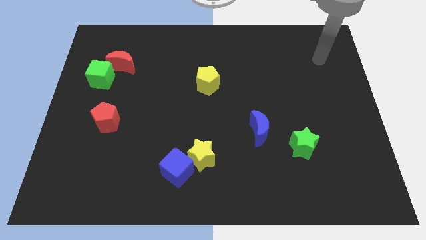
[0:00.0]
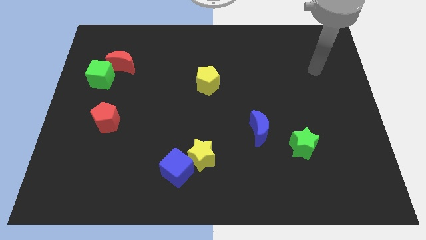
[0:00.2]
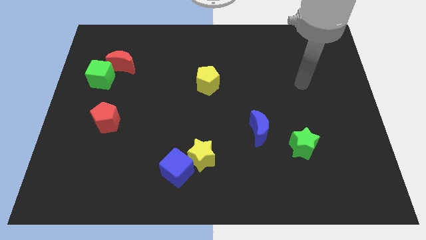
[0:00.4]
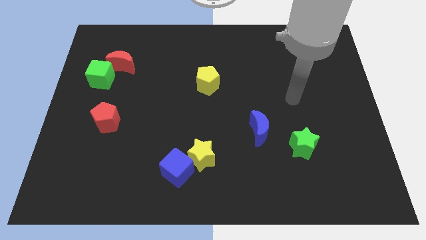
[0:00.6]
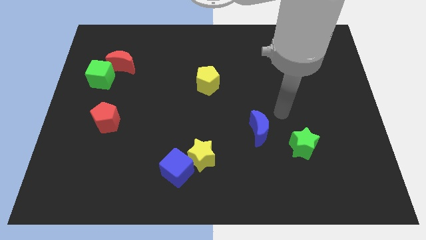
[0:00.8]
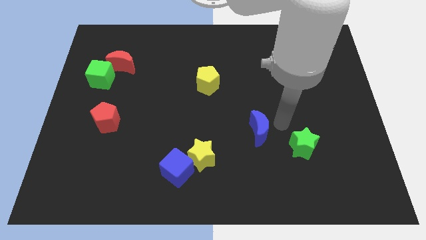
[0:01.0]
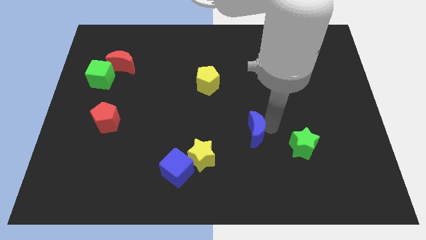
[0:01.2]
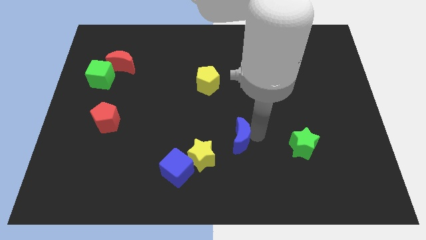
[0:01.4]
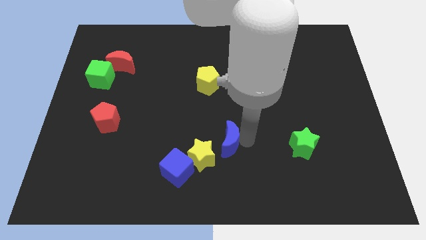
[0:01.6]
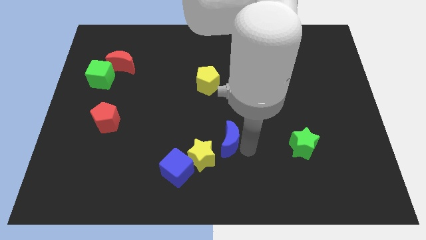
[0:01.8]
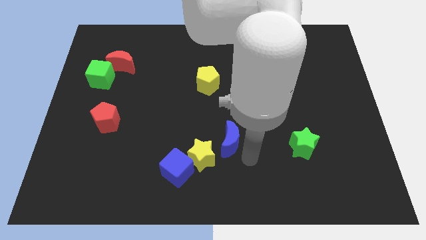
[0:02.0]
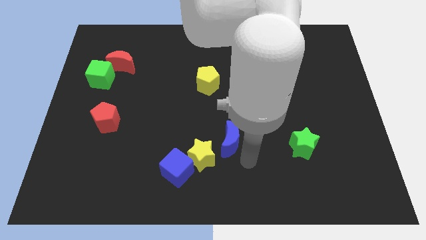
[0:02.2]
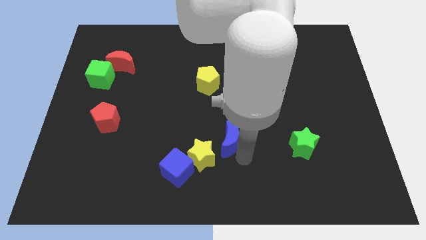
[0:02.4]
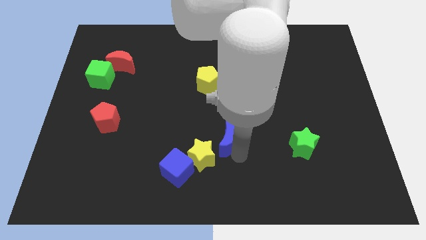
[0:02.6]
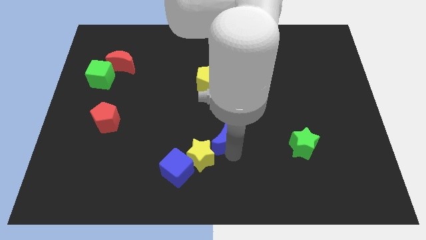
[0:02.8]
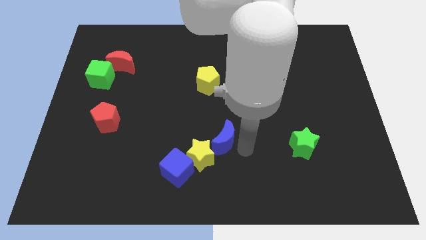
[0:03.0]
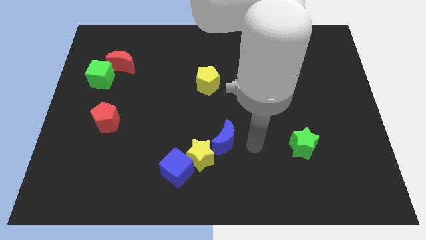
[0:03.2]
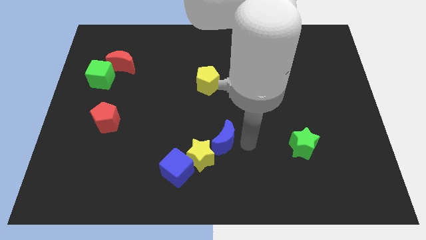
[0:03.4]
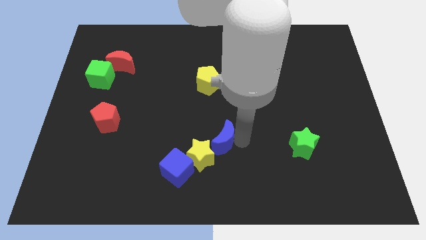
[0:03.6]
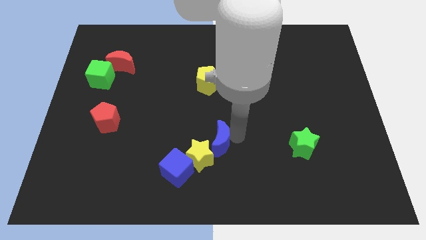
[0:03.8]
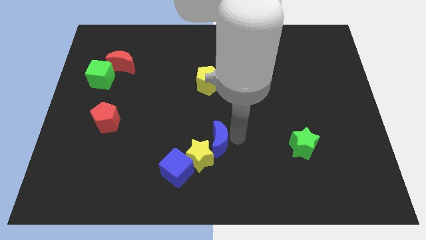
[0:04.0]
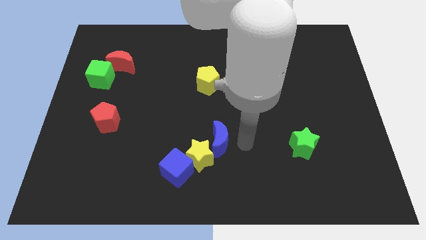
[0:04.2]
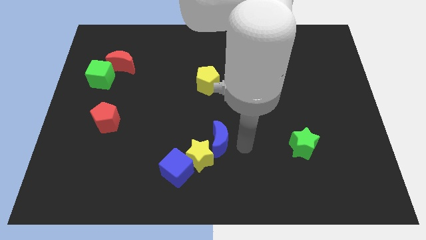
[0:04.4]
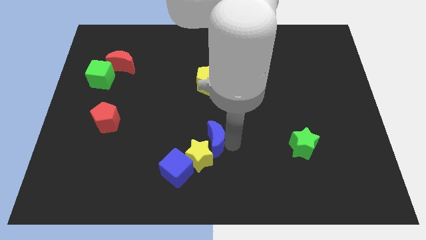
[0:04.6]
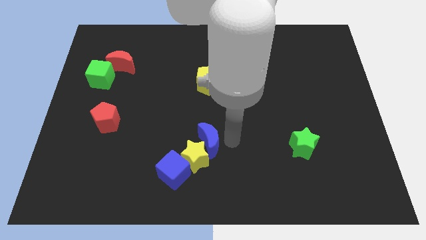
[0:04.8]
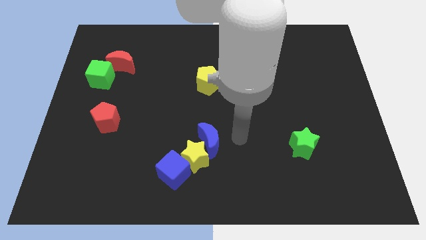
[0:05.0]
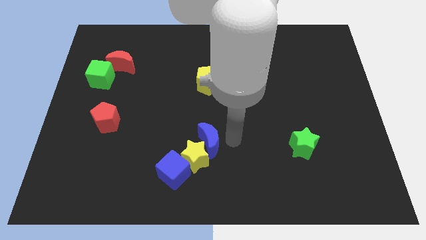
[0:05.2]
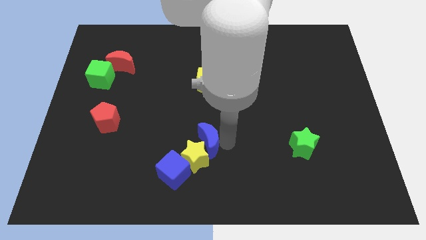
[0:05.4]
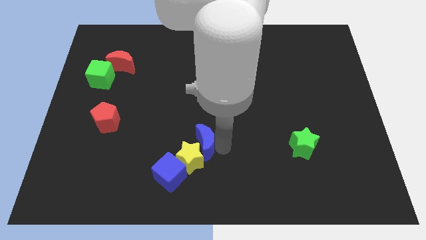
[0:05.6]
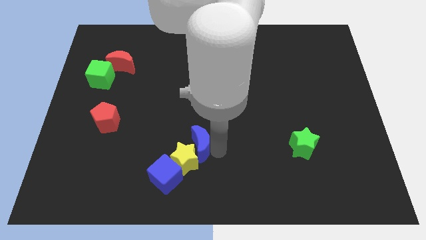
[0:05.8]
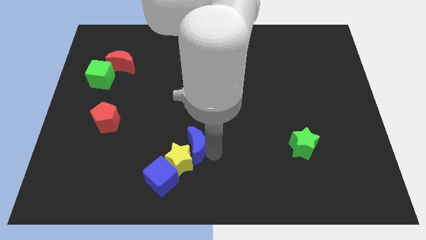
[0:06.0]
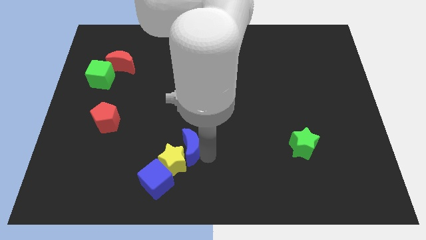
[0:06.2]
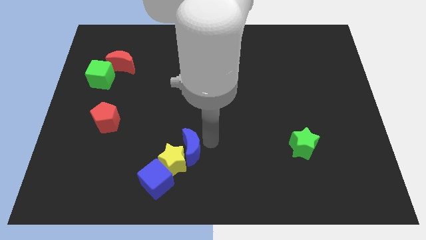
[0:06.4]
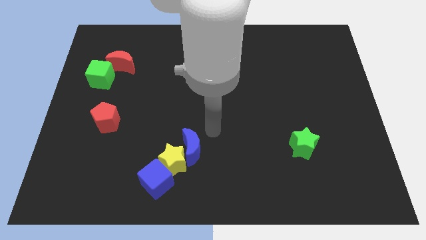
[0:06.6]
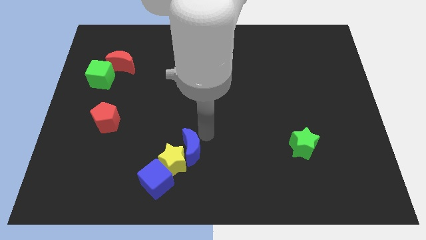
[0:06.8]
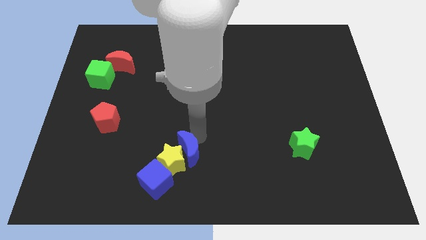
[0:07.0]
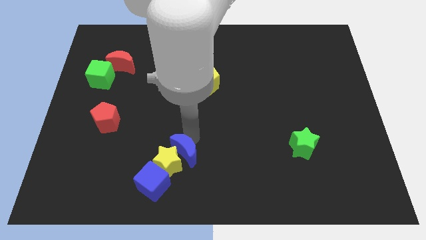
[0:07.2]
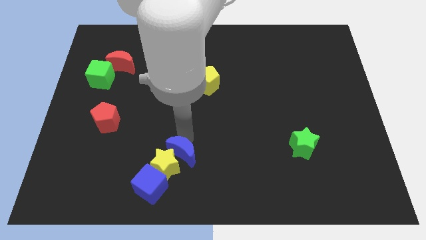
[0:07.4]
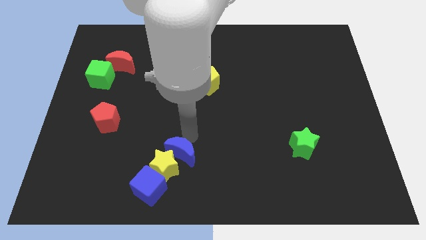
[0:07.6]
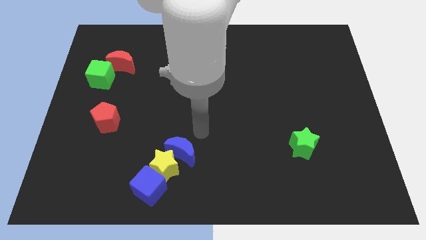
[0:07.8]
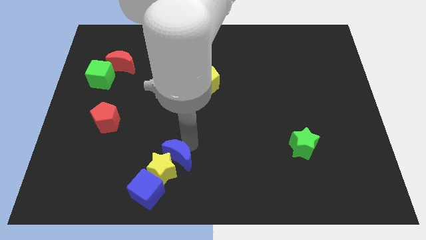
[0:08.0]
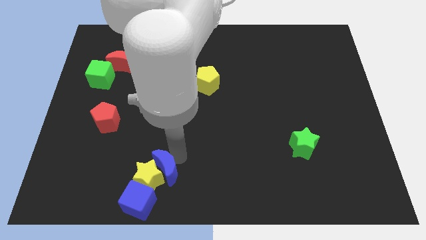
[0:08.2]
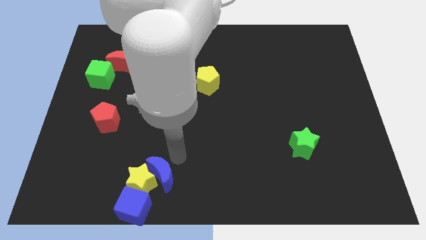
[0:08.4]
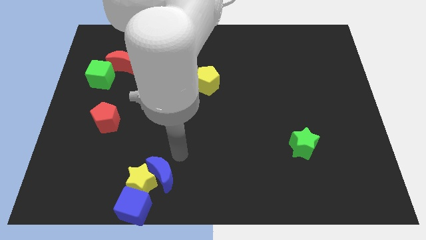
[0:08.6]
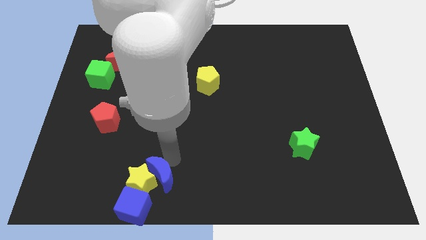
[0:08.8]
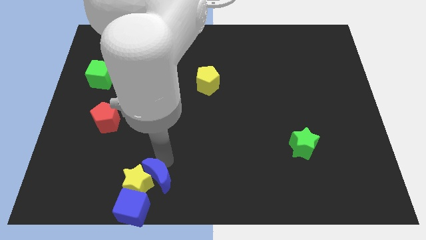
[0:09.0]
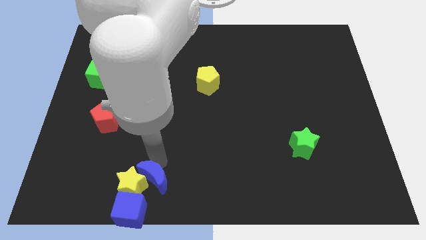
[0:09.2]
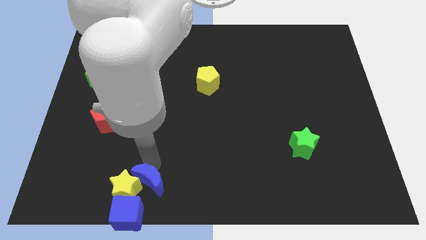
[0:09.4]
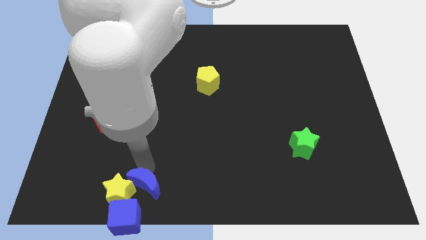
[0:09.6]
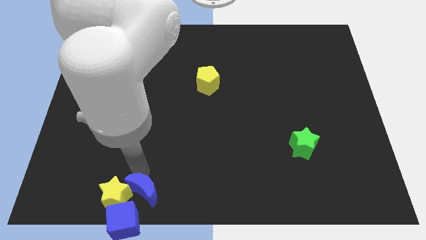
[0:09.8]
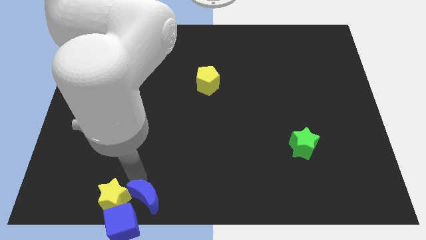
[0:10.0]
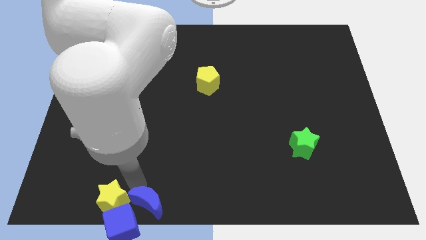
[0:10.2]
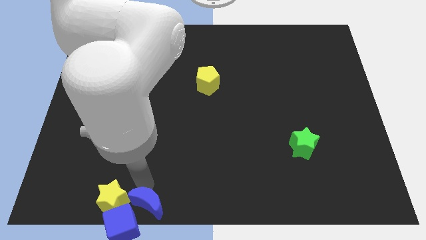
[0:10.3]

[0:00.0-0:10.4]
put the blue moon to the blue cube

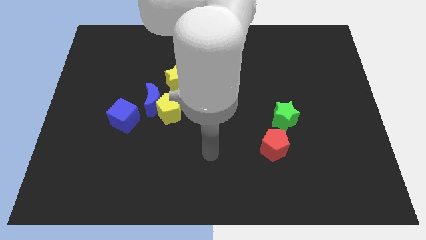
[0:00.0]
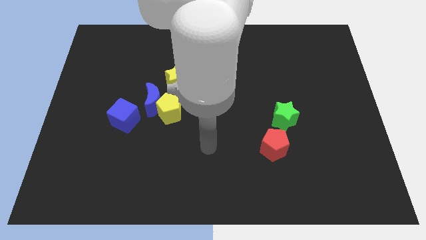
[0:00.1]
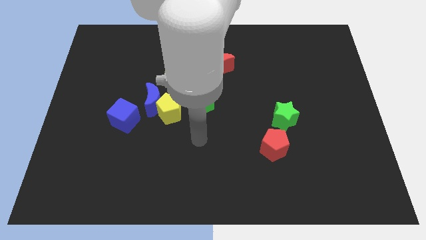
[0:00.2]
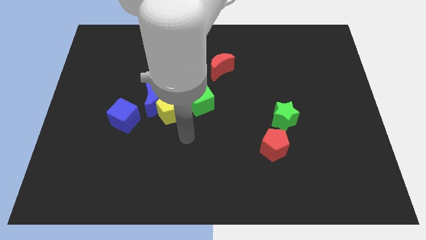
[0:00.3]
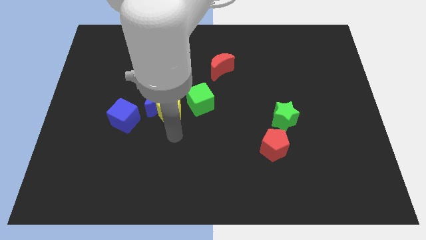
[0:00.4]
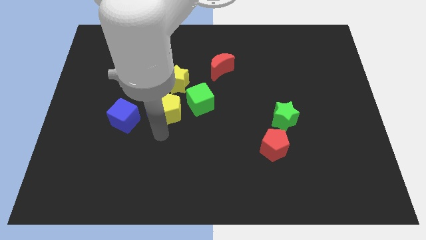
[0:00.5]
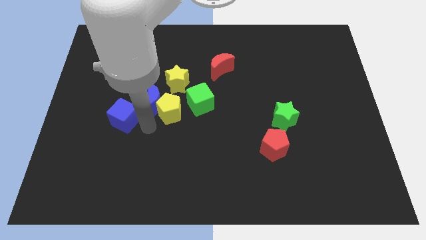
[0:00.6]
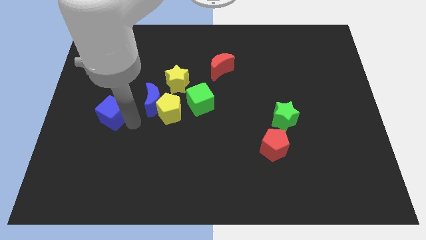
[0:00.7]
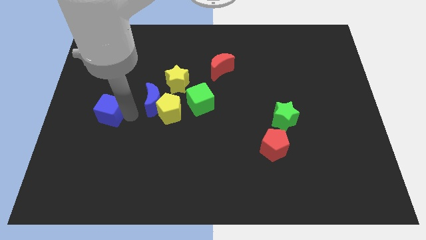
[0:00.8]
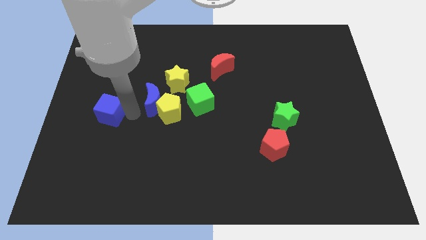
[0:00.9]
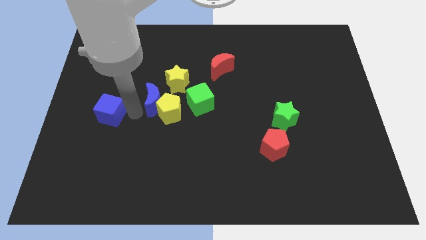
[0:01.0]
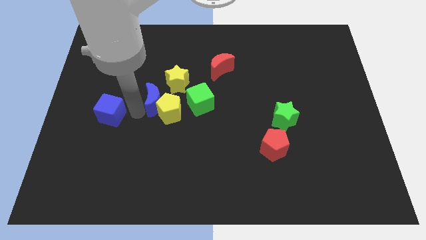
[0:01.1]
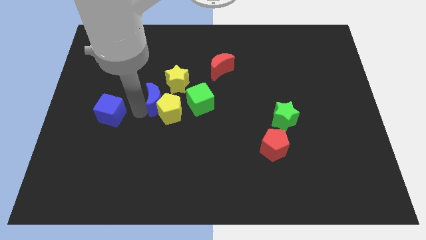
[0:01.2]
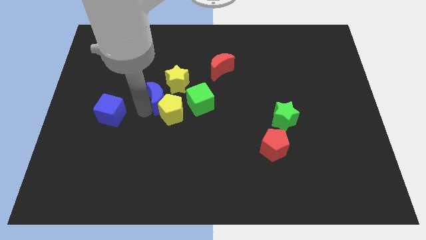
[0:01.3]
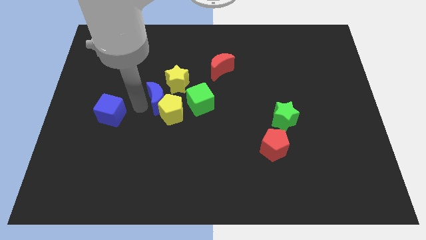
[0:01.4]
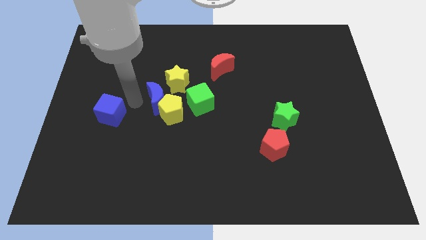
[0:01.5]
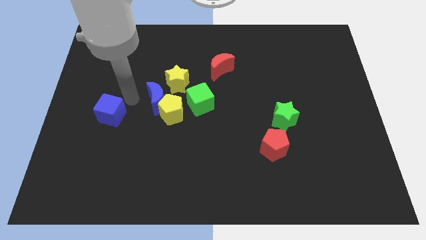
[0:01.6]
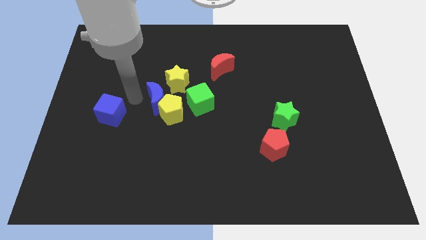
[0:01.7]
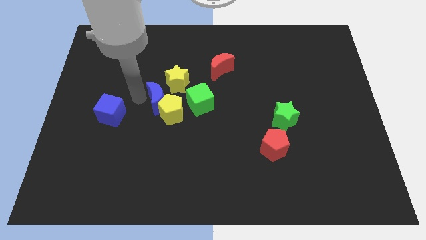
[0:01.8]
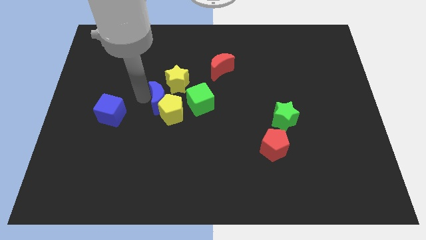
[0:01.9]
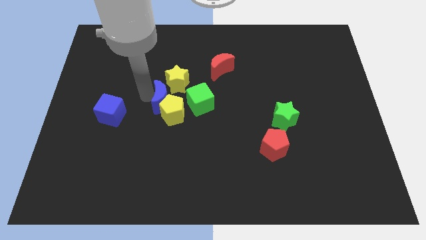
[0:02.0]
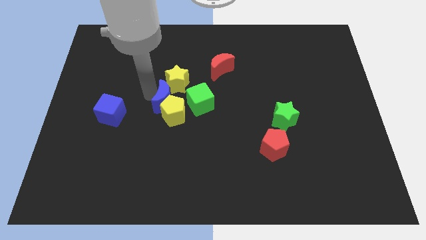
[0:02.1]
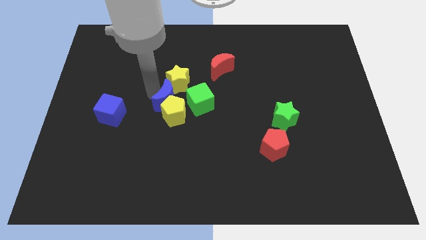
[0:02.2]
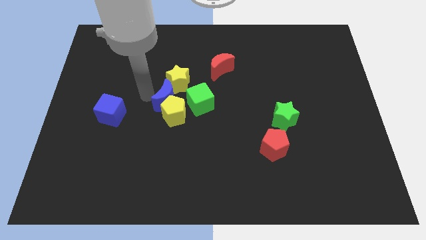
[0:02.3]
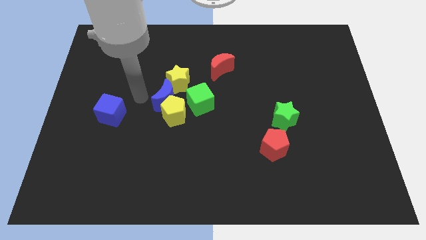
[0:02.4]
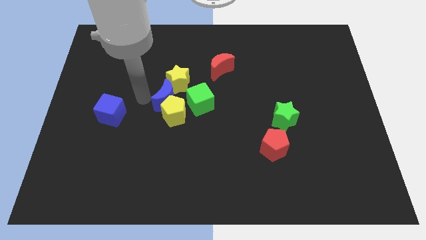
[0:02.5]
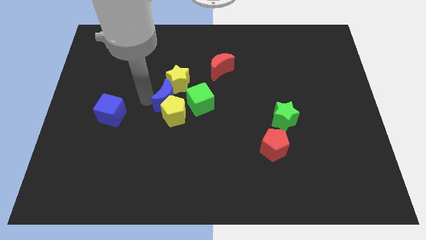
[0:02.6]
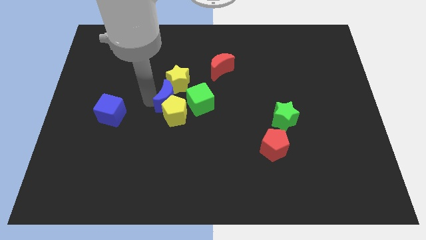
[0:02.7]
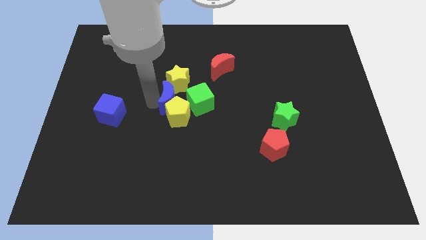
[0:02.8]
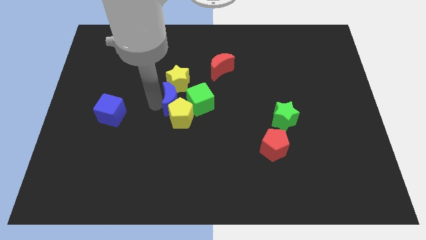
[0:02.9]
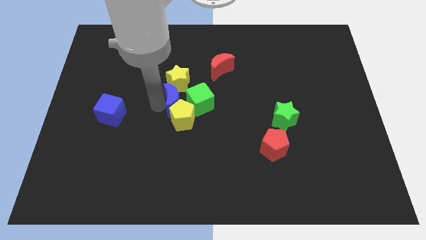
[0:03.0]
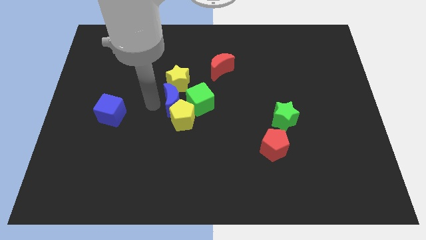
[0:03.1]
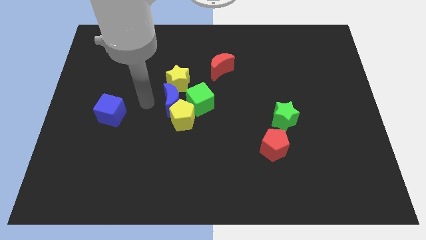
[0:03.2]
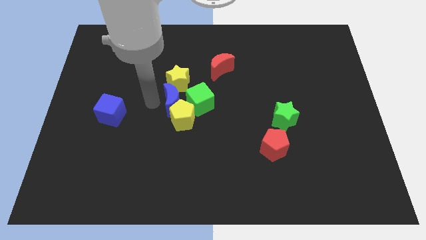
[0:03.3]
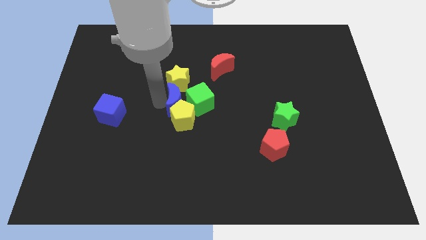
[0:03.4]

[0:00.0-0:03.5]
move the blue moon next to the green cube
